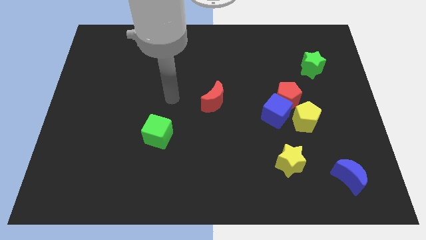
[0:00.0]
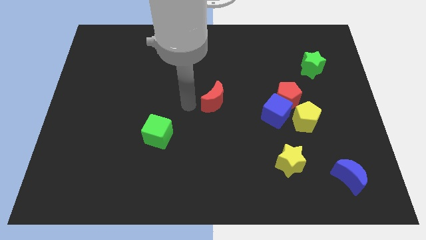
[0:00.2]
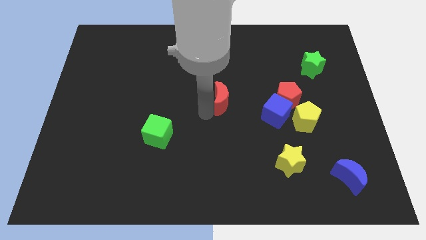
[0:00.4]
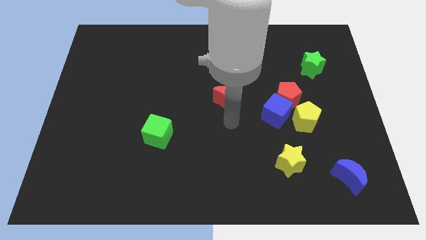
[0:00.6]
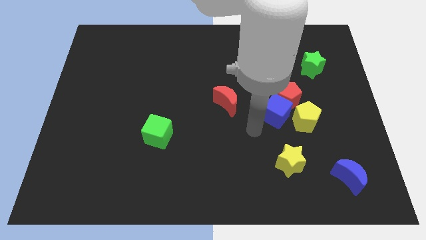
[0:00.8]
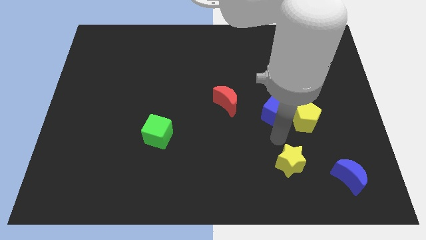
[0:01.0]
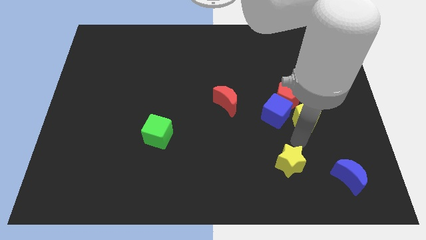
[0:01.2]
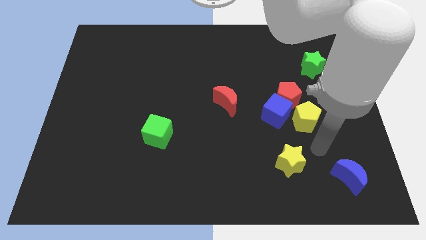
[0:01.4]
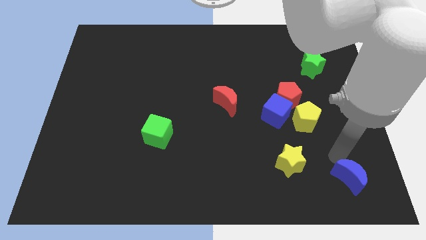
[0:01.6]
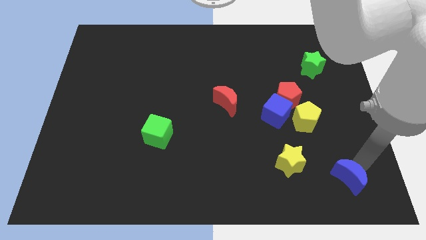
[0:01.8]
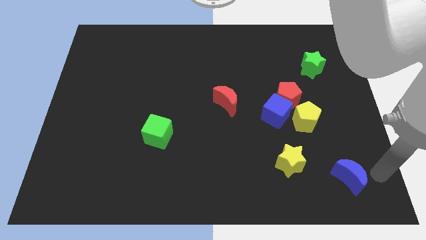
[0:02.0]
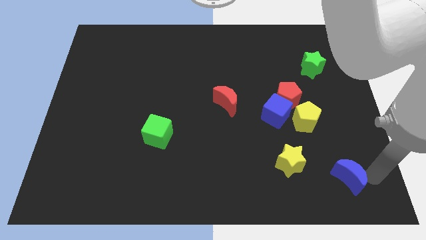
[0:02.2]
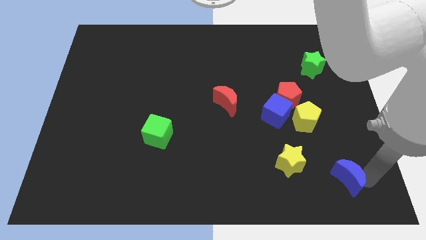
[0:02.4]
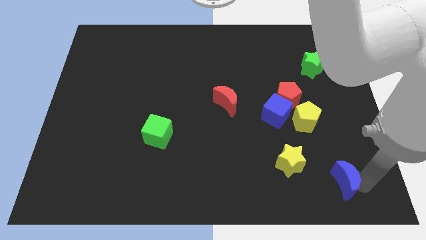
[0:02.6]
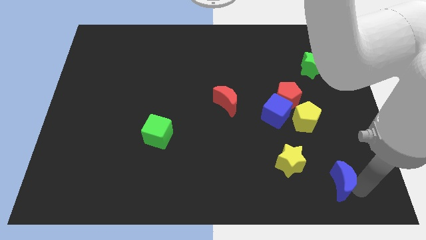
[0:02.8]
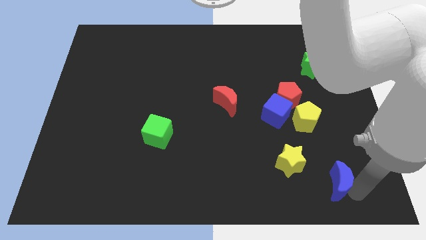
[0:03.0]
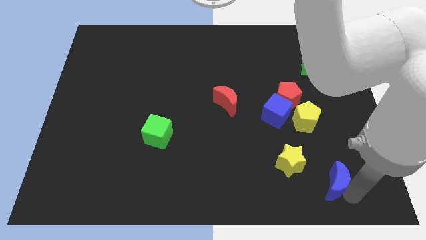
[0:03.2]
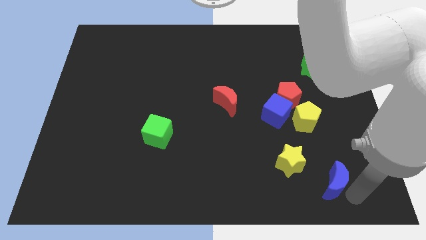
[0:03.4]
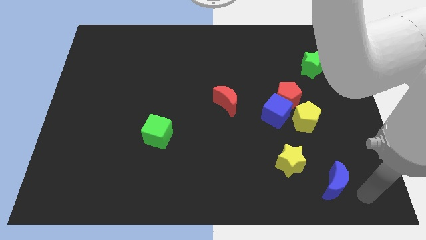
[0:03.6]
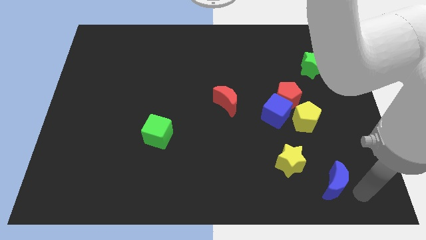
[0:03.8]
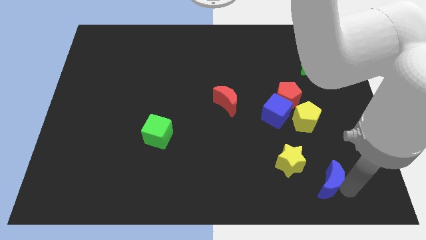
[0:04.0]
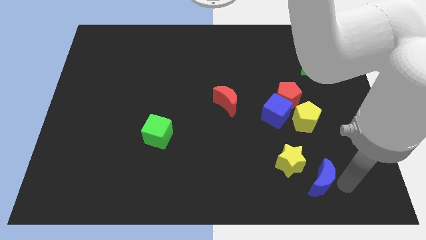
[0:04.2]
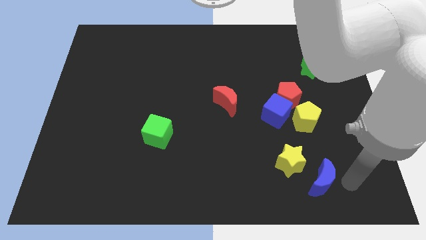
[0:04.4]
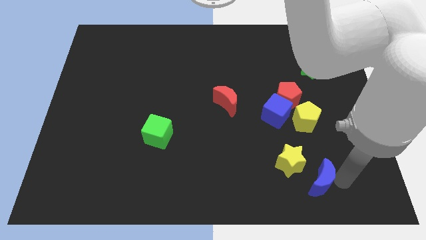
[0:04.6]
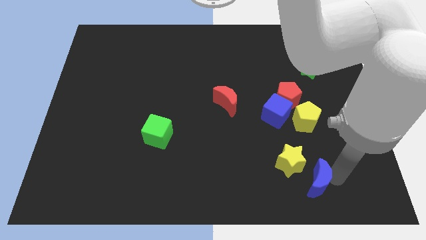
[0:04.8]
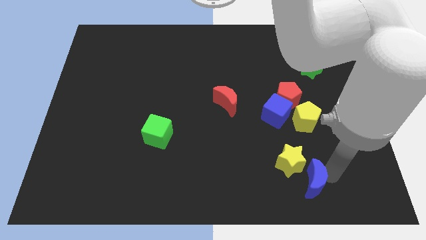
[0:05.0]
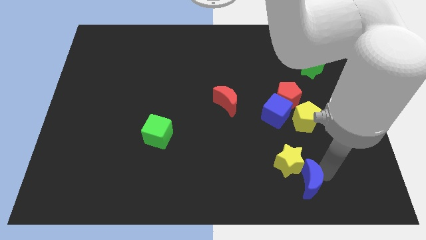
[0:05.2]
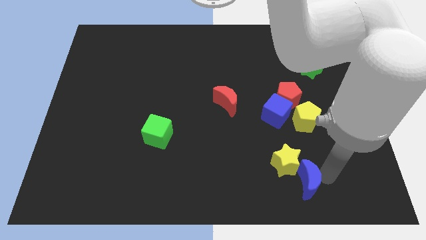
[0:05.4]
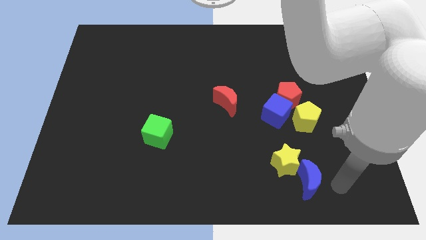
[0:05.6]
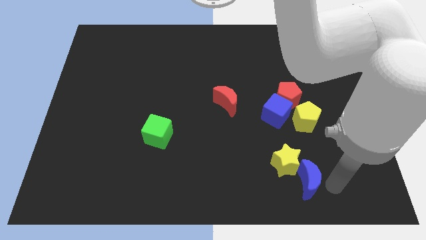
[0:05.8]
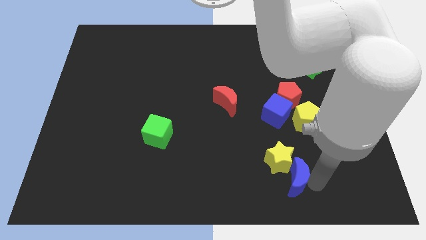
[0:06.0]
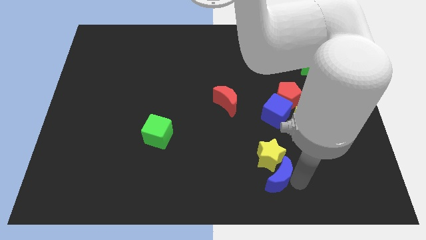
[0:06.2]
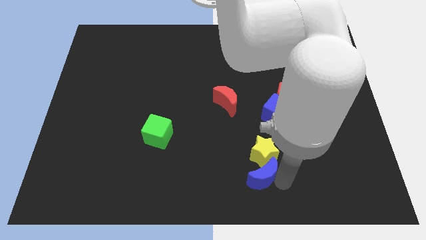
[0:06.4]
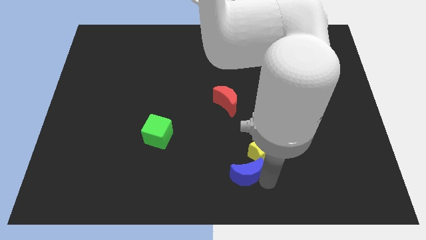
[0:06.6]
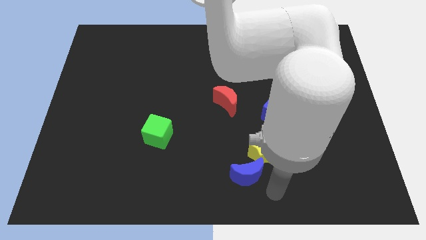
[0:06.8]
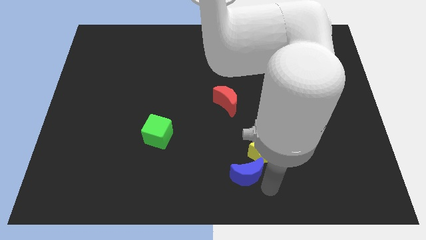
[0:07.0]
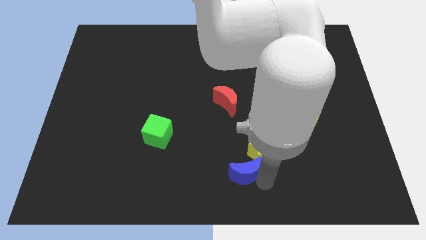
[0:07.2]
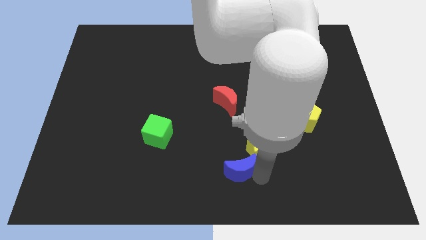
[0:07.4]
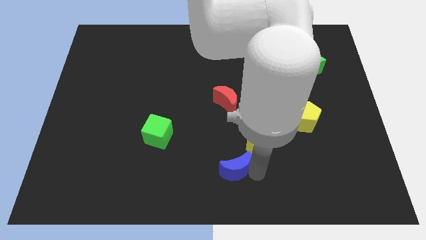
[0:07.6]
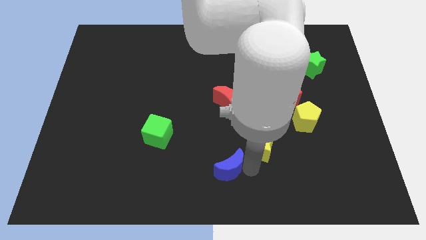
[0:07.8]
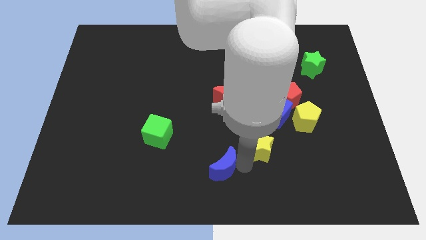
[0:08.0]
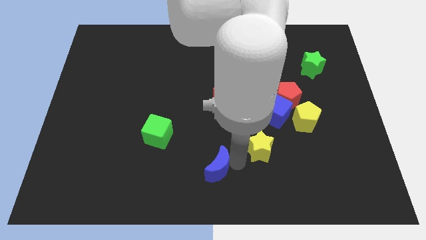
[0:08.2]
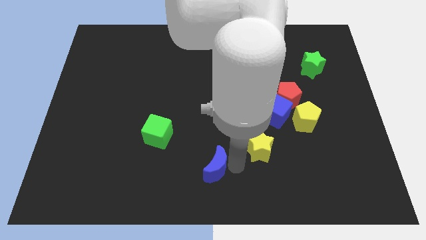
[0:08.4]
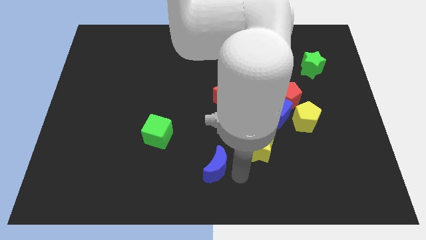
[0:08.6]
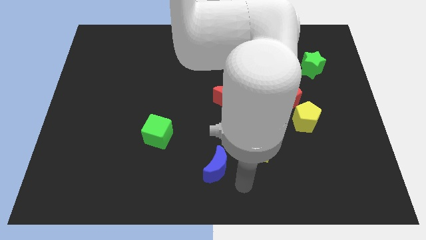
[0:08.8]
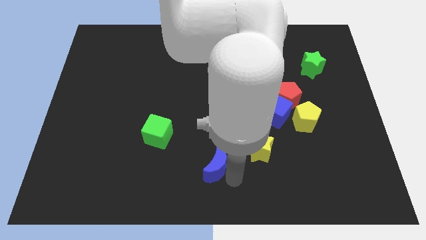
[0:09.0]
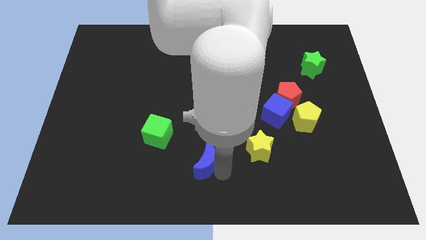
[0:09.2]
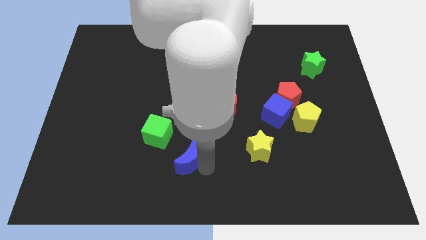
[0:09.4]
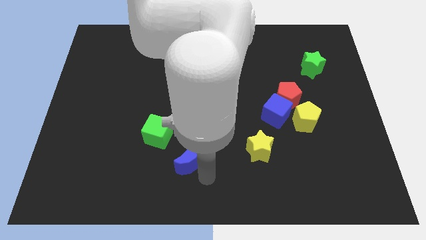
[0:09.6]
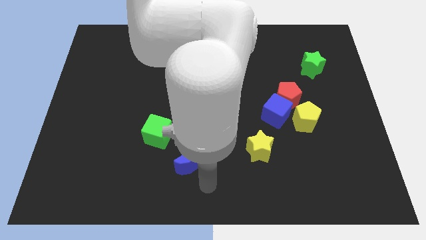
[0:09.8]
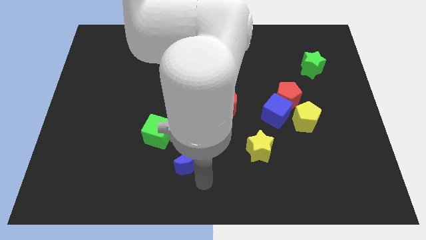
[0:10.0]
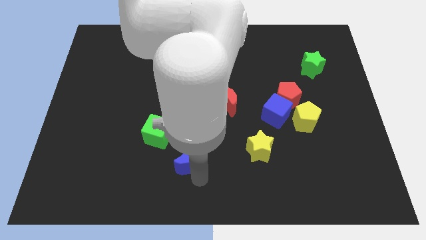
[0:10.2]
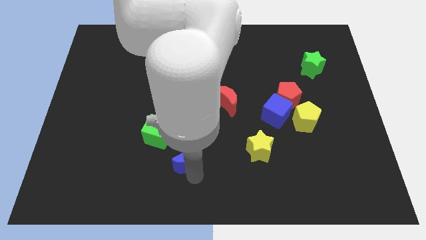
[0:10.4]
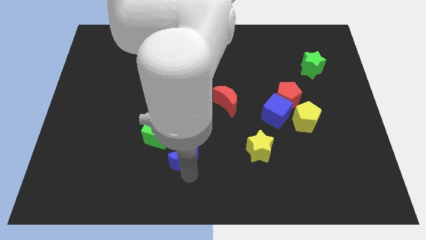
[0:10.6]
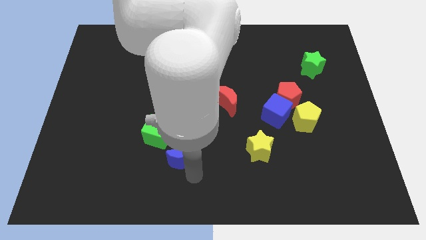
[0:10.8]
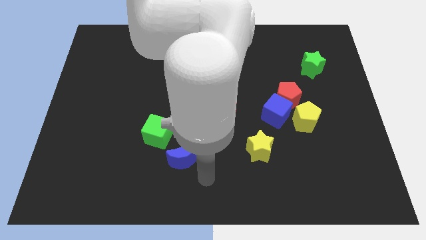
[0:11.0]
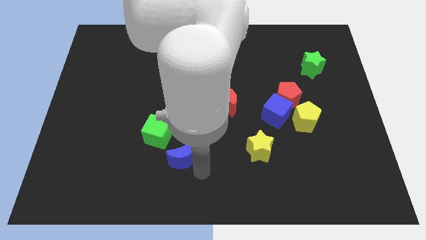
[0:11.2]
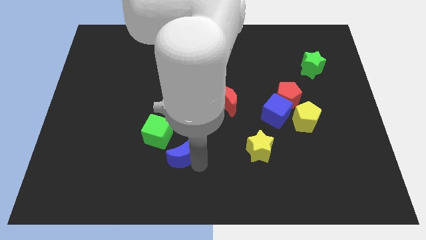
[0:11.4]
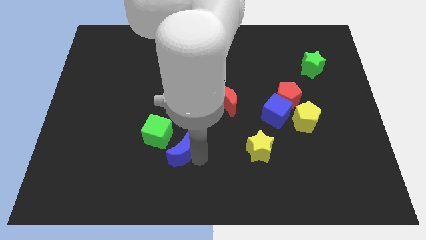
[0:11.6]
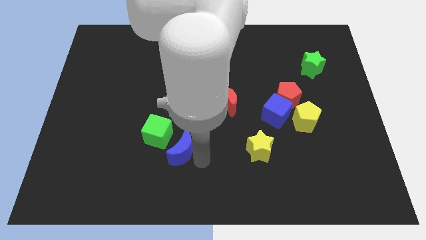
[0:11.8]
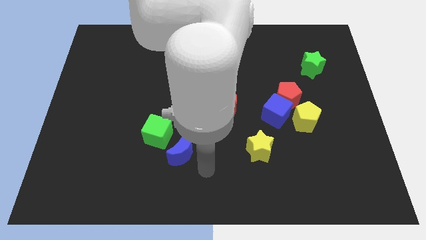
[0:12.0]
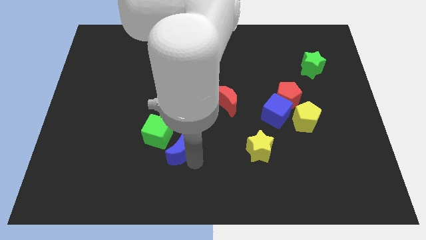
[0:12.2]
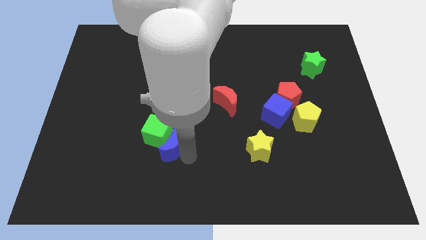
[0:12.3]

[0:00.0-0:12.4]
push the blue moon close to the green cube

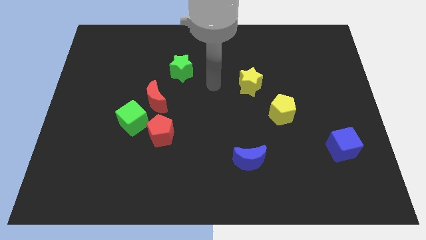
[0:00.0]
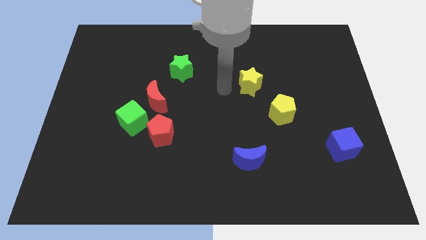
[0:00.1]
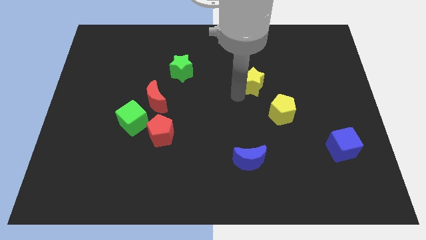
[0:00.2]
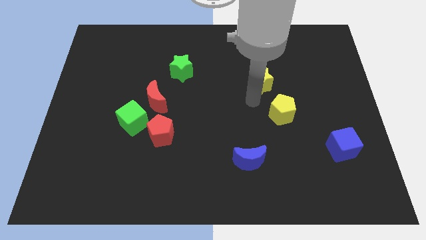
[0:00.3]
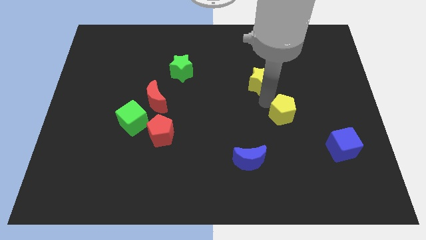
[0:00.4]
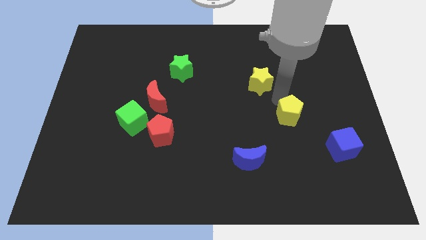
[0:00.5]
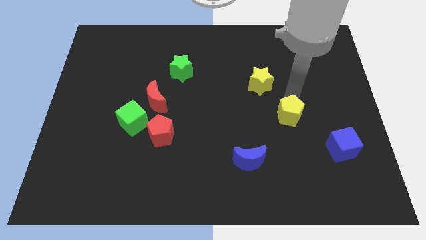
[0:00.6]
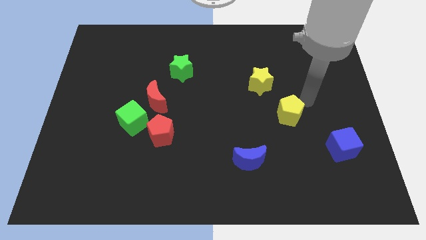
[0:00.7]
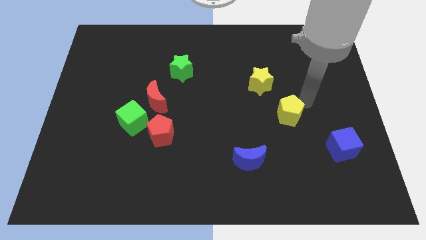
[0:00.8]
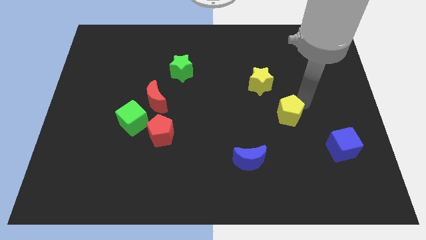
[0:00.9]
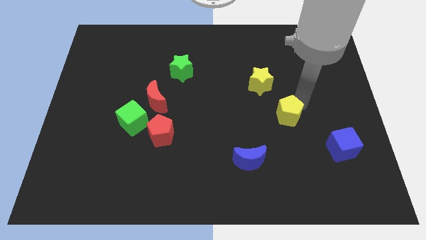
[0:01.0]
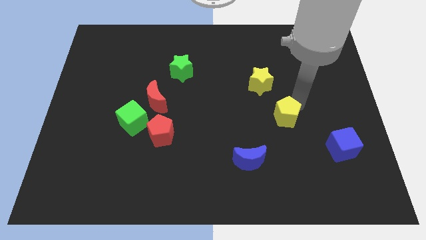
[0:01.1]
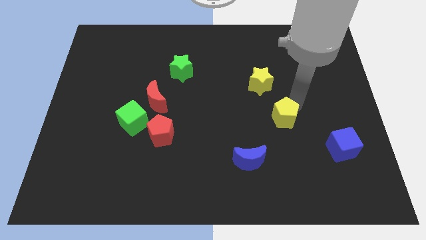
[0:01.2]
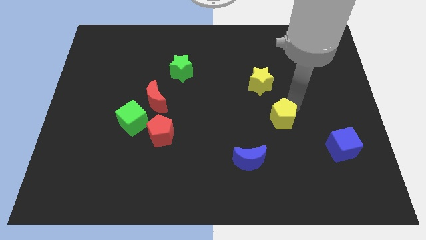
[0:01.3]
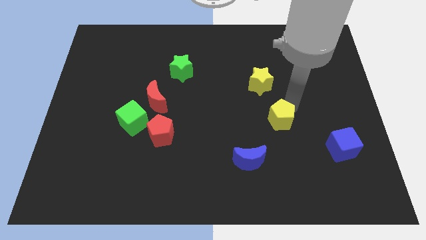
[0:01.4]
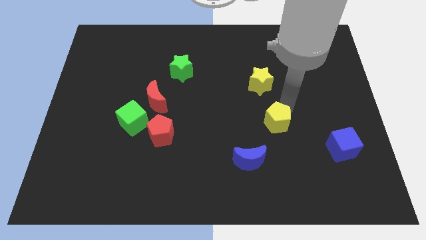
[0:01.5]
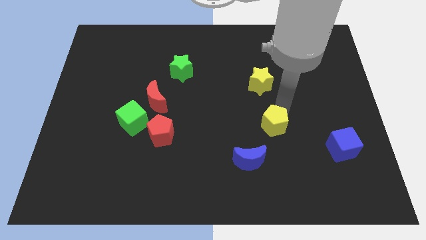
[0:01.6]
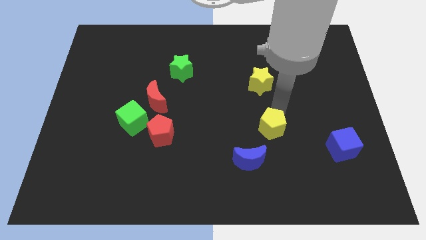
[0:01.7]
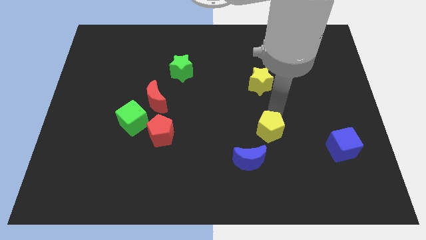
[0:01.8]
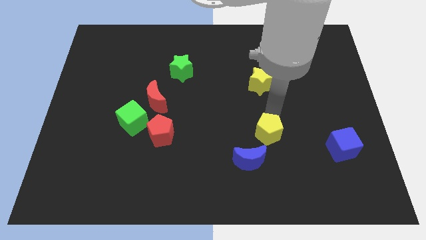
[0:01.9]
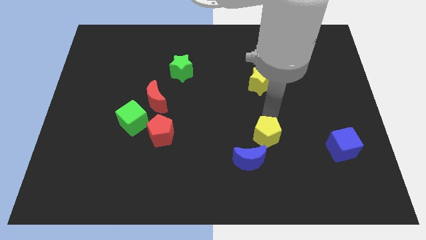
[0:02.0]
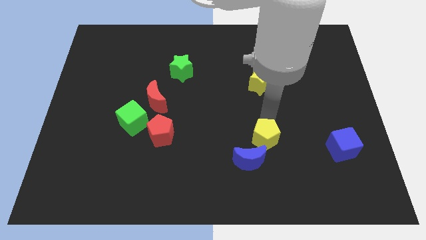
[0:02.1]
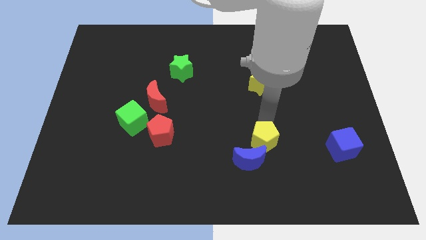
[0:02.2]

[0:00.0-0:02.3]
slide the yellow pentagon towards the blue moon
